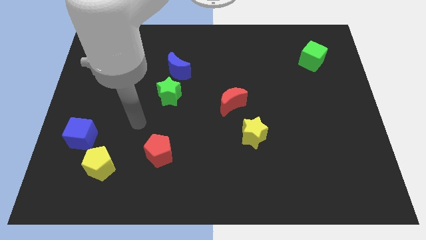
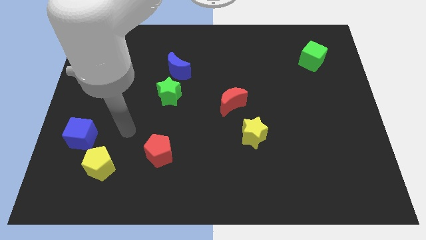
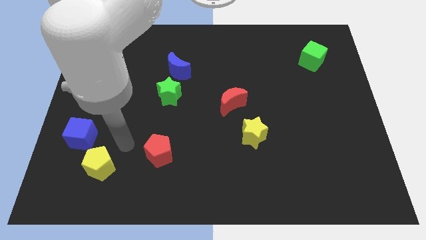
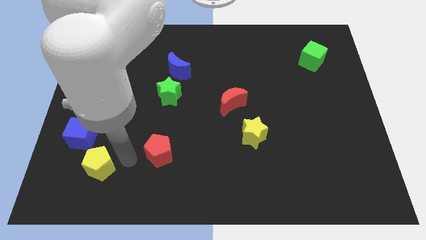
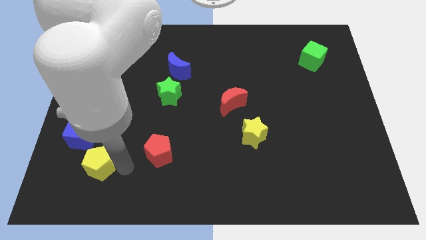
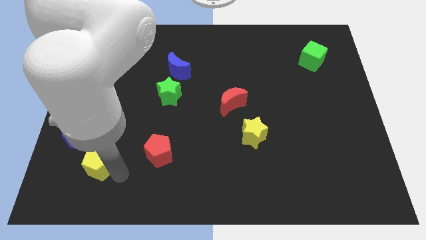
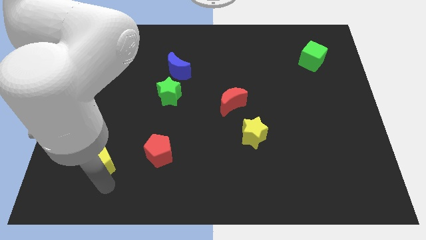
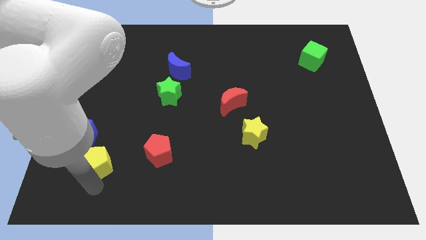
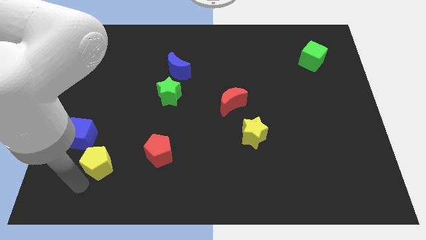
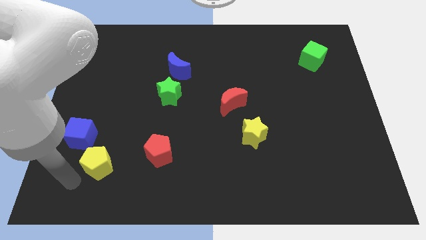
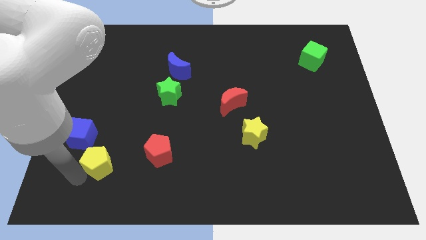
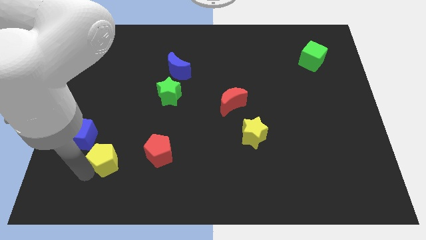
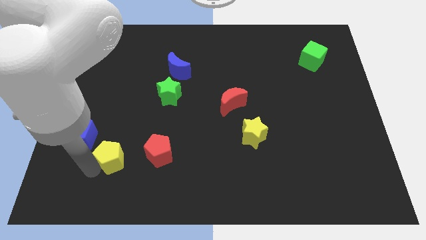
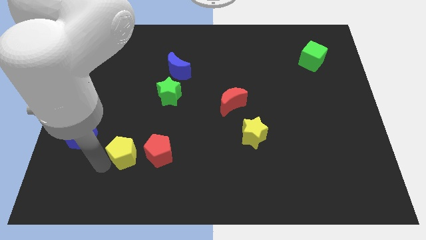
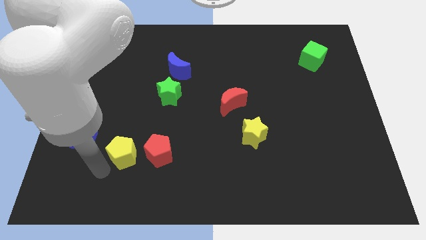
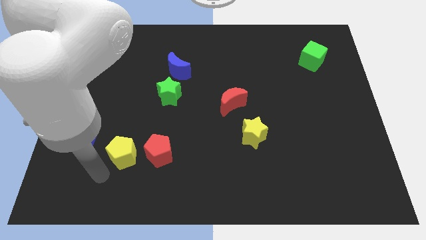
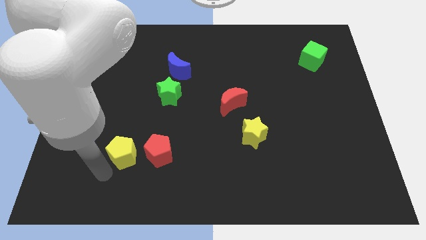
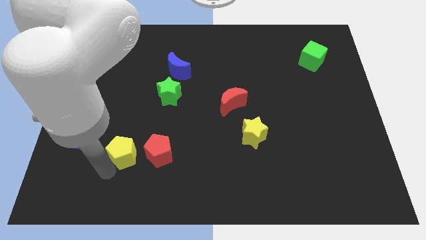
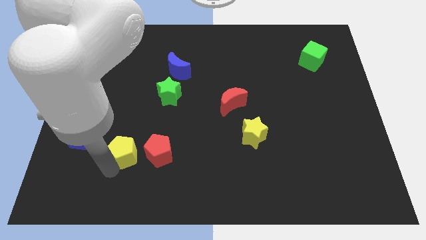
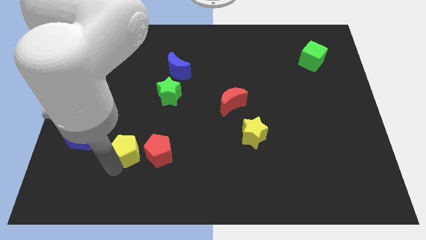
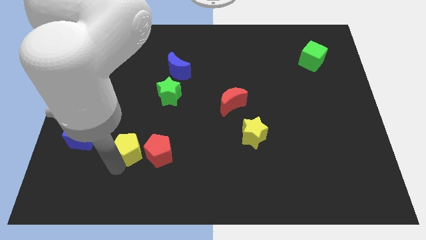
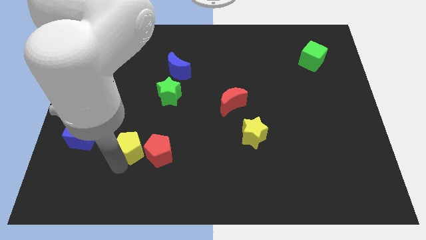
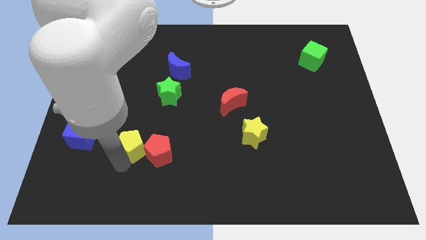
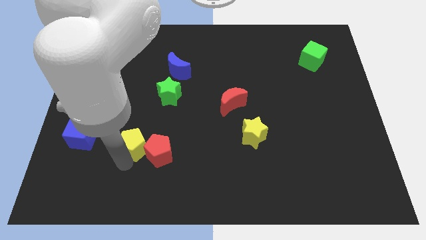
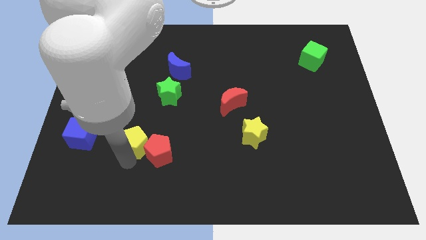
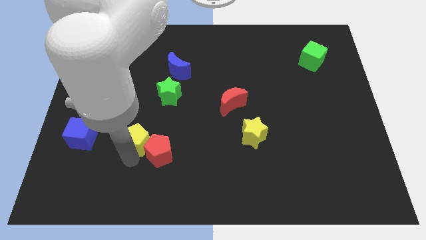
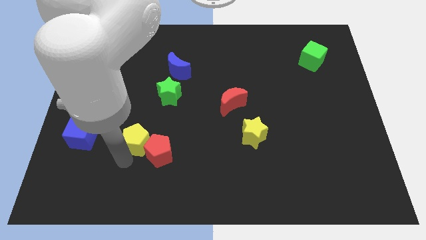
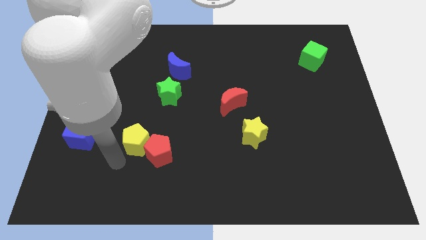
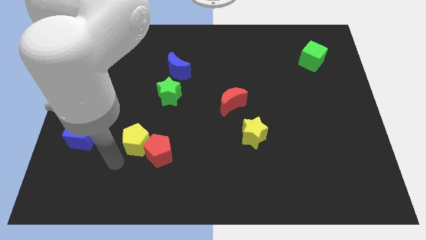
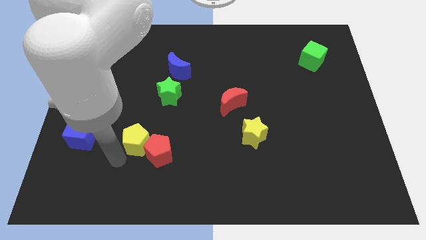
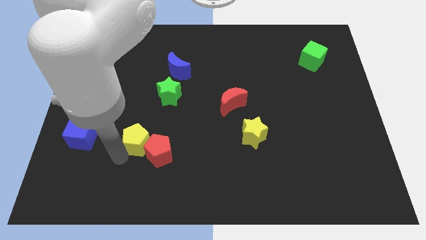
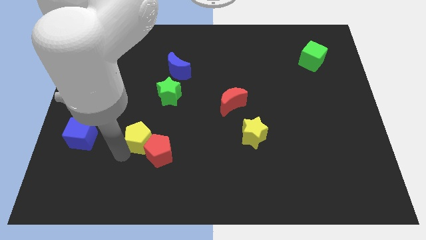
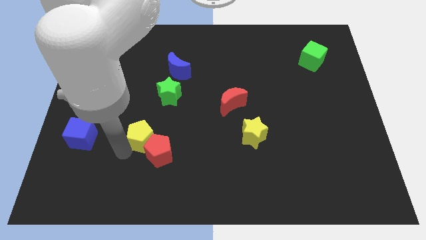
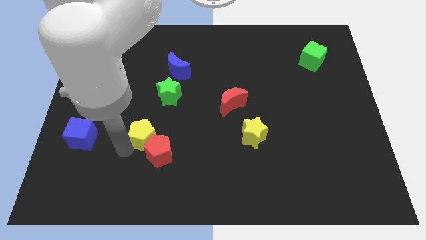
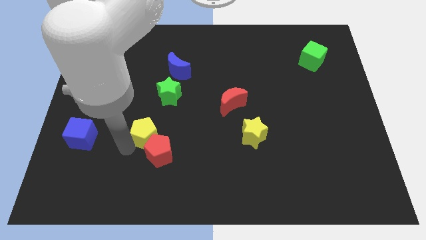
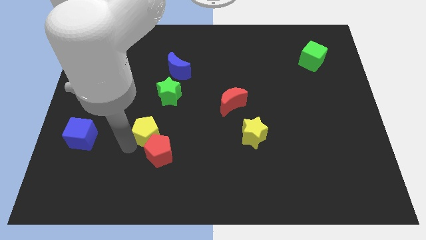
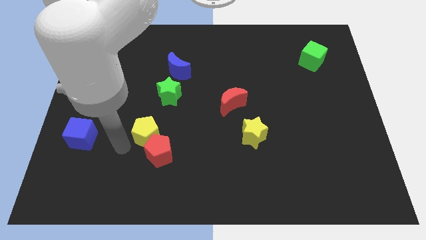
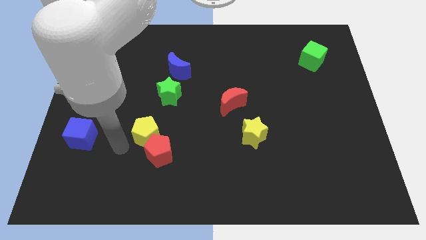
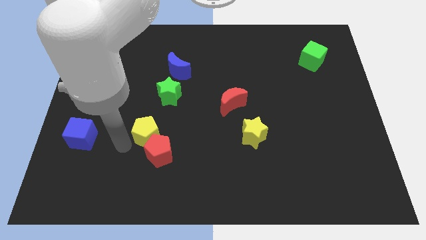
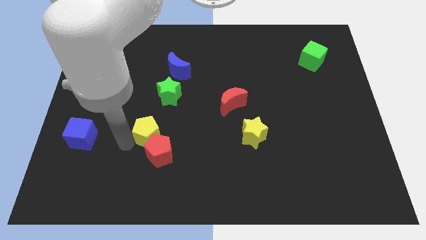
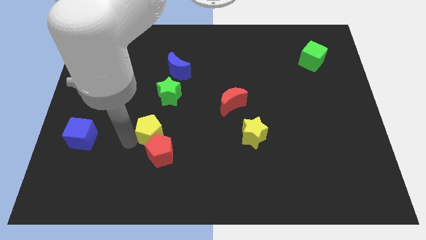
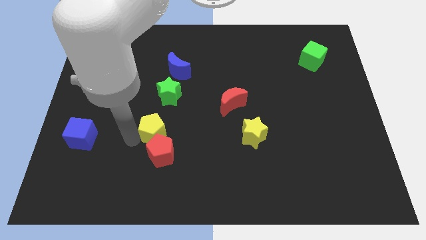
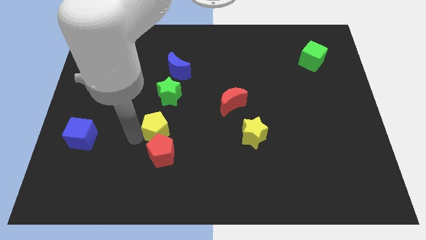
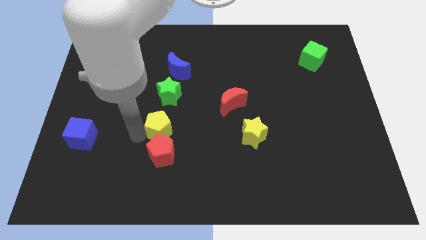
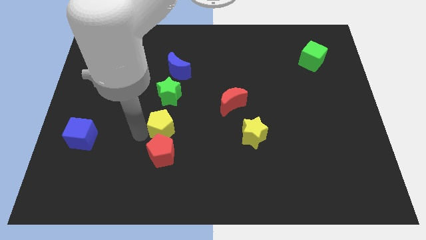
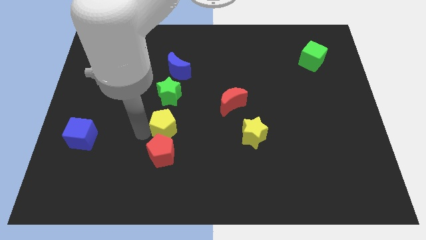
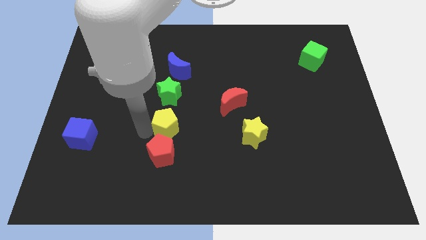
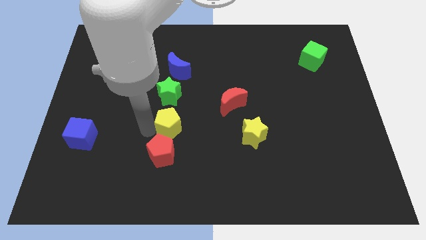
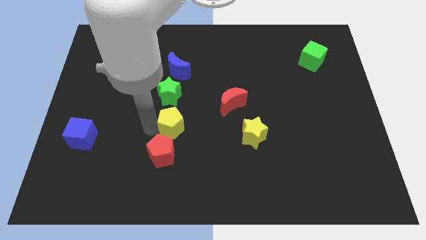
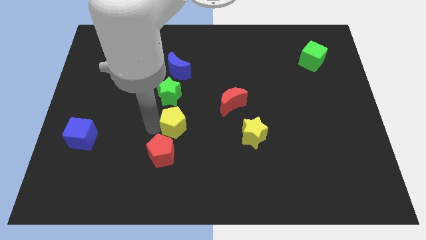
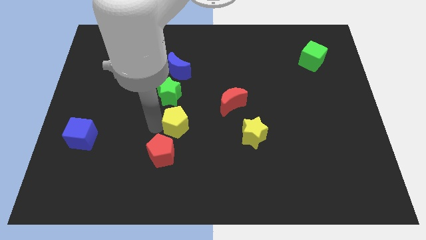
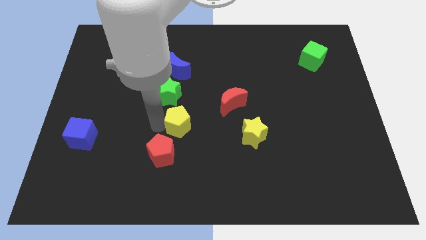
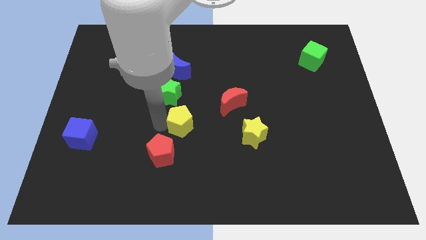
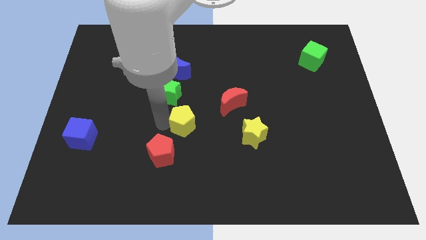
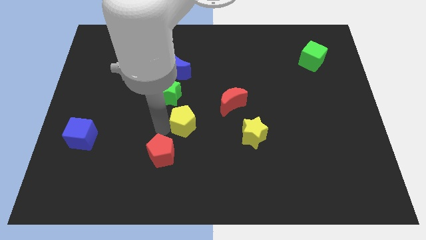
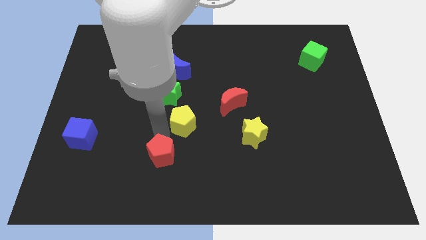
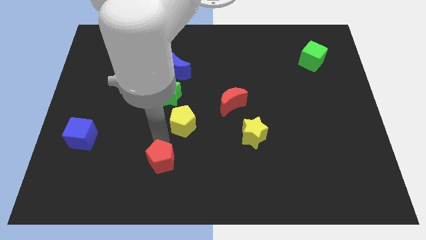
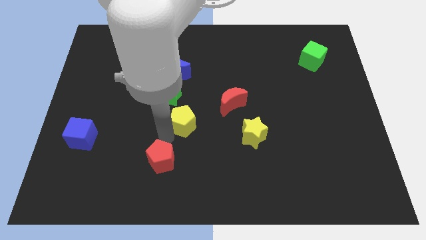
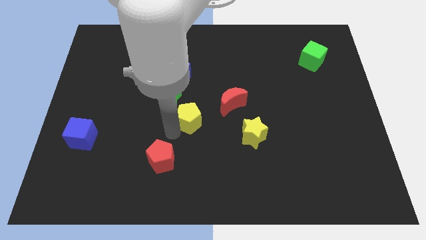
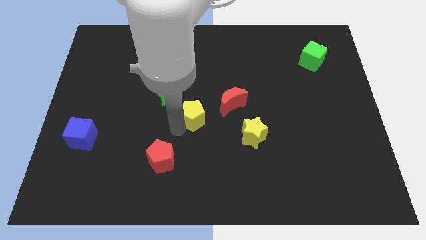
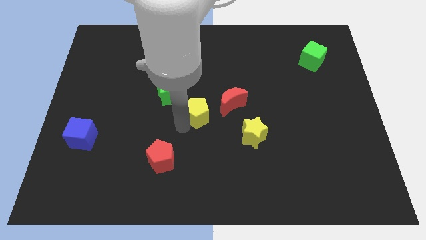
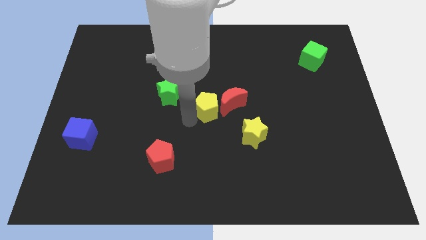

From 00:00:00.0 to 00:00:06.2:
slide the yellow pentagon to the red moon

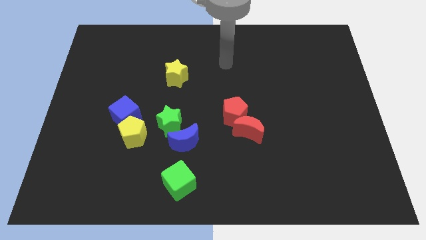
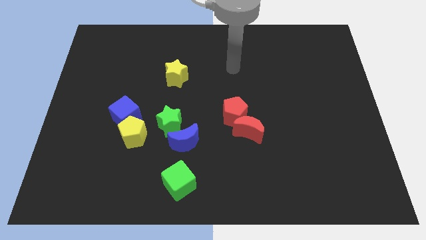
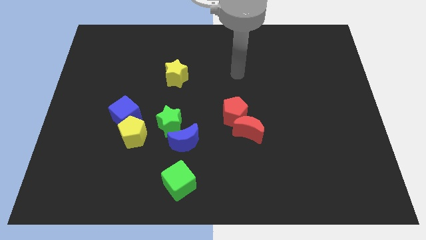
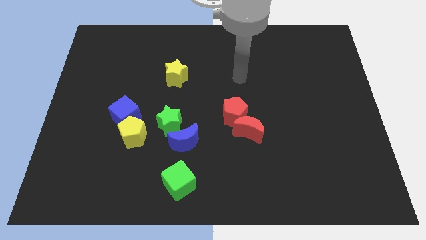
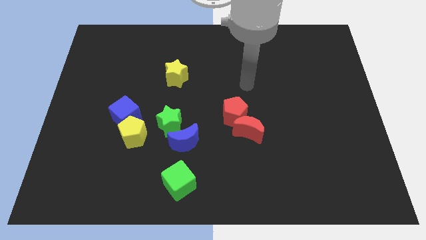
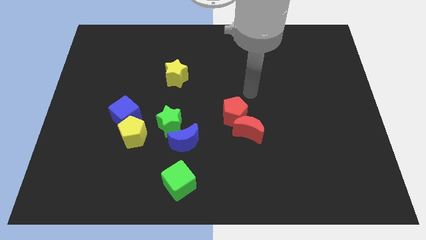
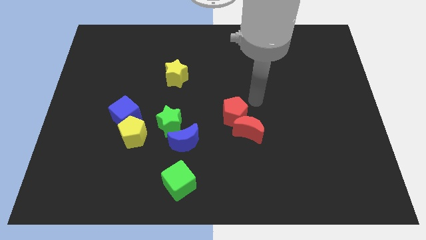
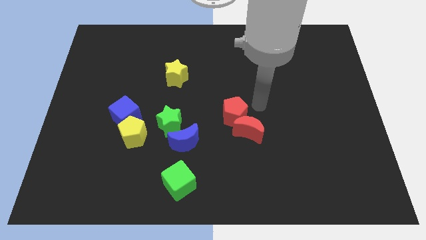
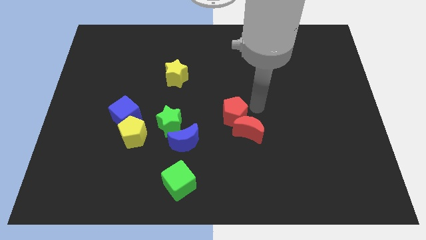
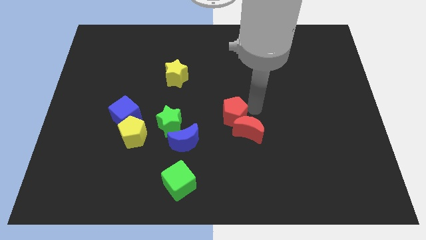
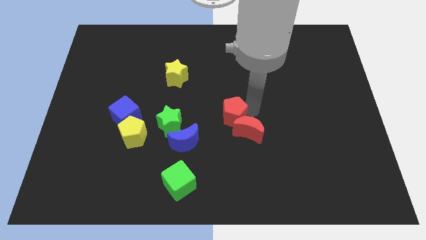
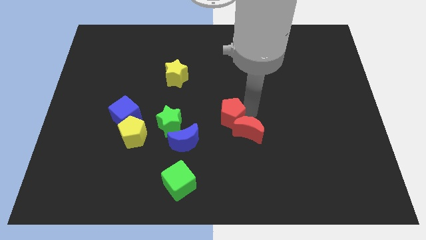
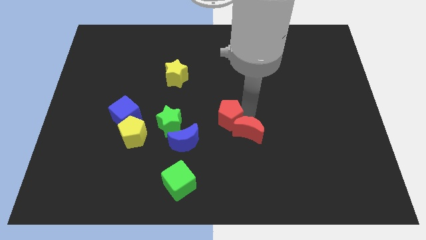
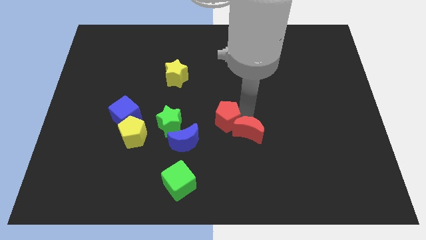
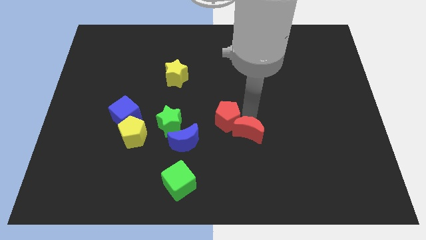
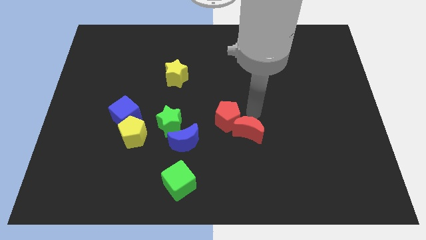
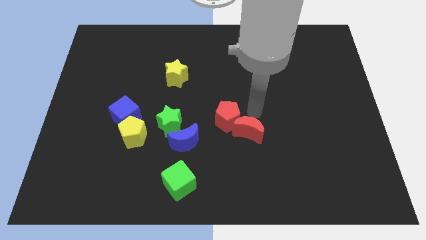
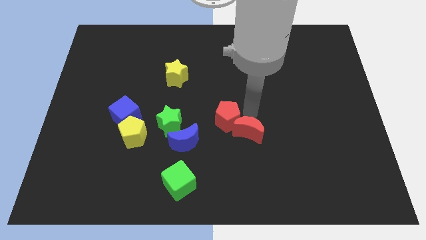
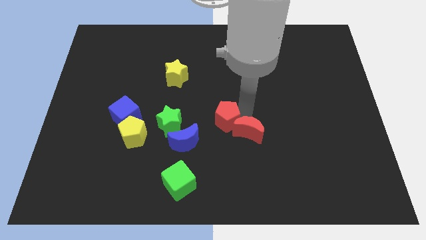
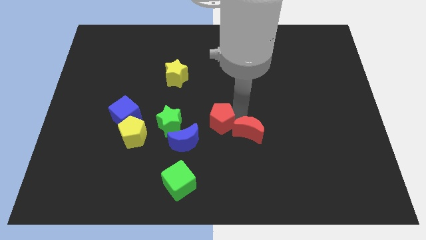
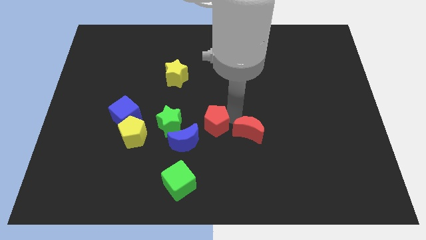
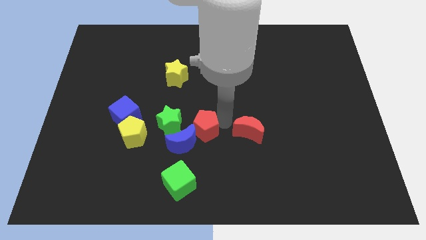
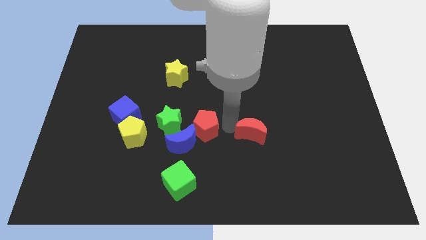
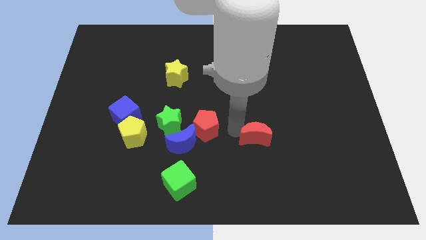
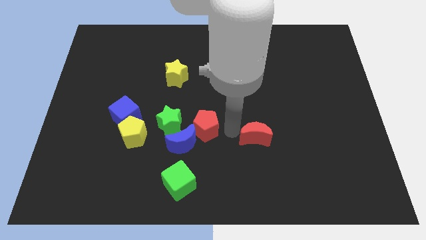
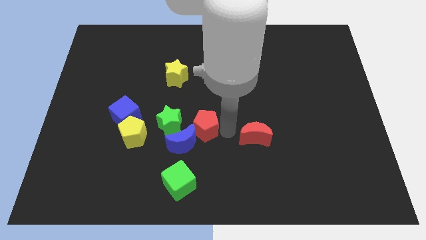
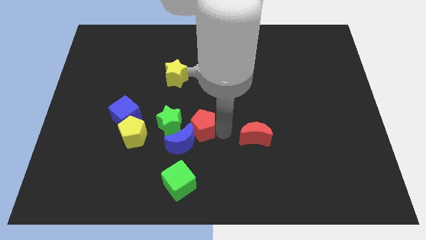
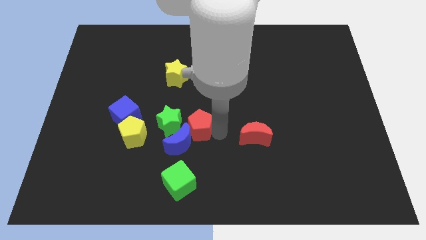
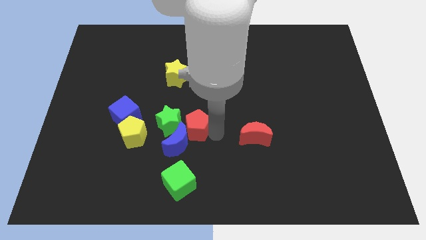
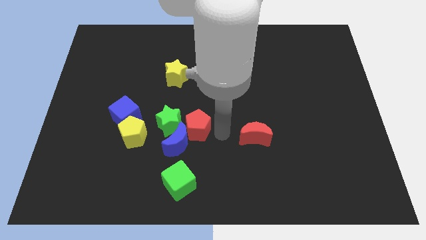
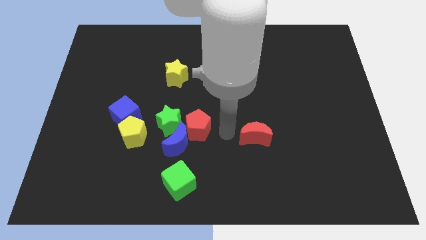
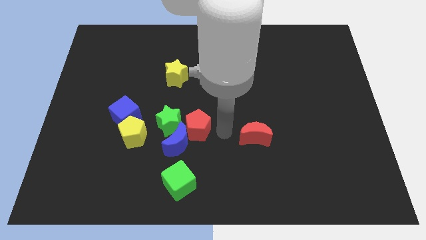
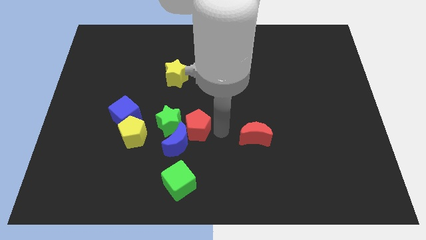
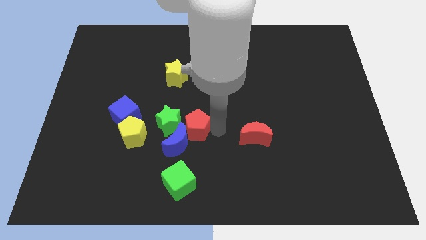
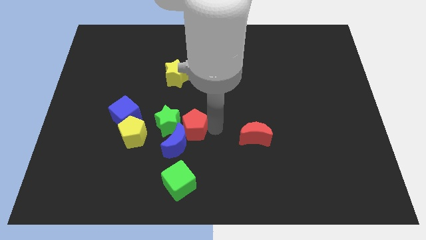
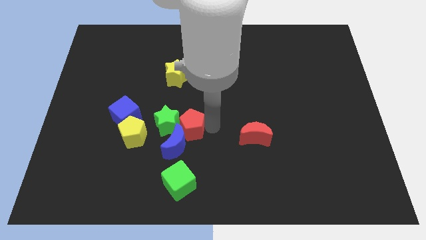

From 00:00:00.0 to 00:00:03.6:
move the red pentagon towards the green star
